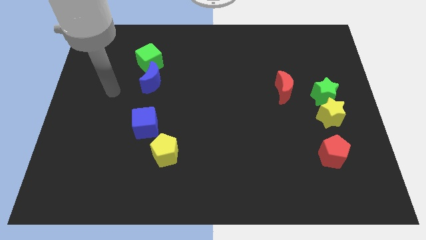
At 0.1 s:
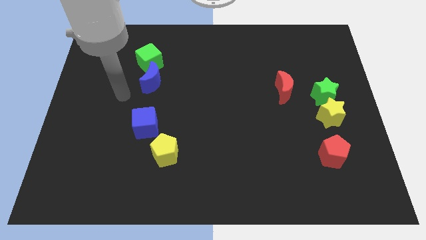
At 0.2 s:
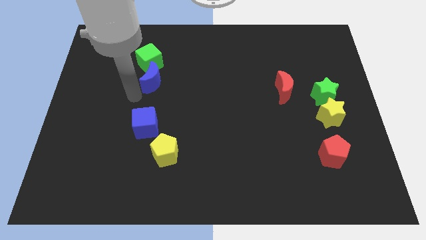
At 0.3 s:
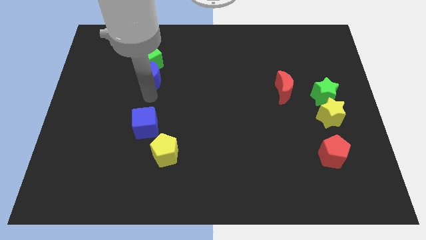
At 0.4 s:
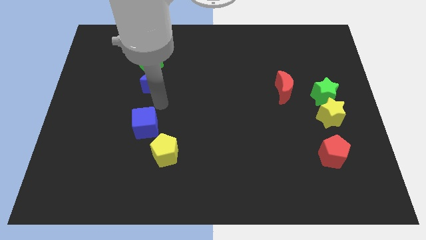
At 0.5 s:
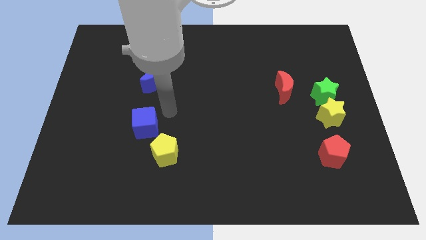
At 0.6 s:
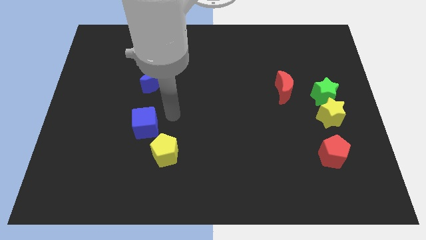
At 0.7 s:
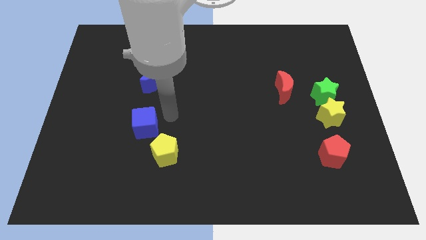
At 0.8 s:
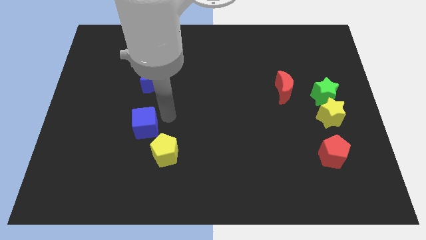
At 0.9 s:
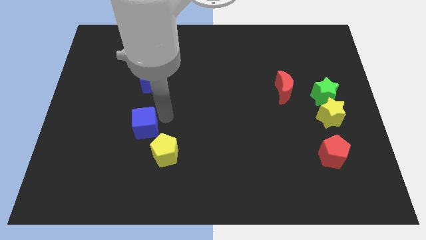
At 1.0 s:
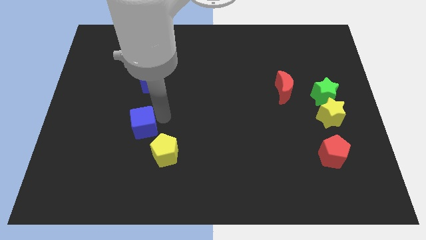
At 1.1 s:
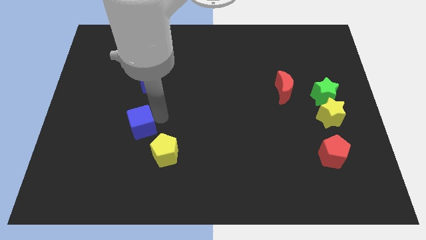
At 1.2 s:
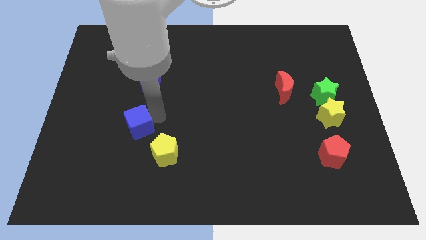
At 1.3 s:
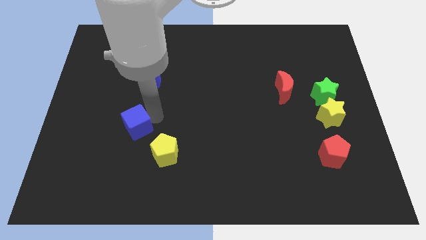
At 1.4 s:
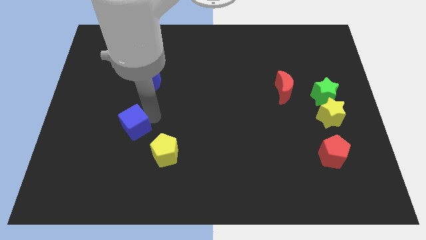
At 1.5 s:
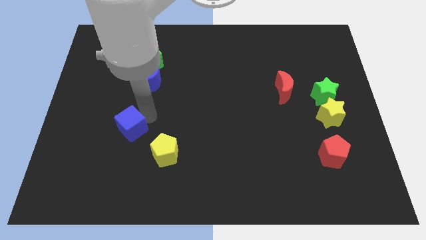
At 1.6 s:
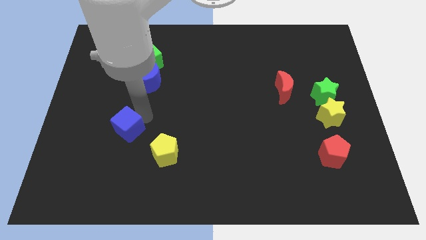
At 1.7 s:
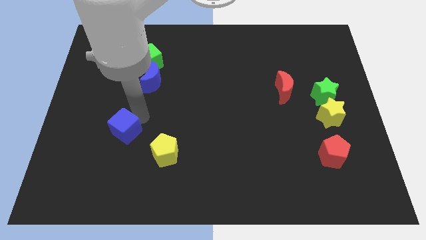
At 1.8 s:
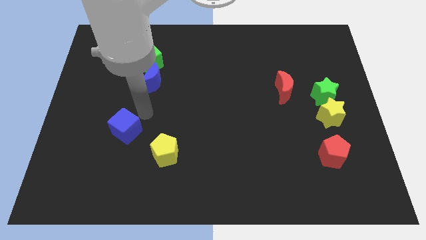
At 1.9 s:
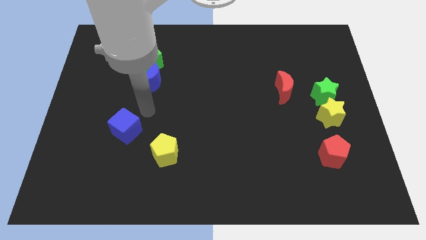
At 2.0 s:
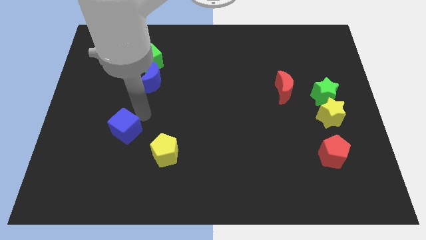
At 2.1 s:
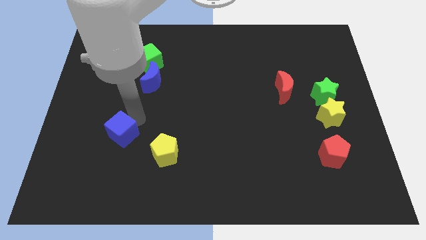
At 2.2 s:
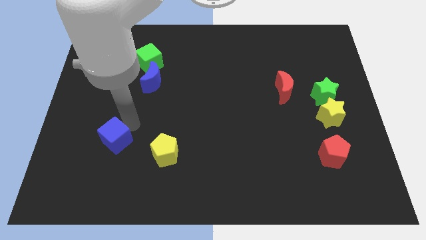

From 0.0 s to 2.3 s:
slightly slide the blue cube diagonally downwards and left

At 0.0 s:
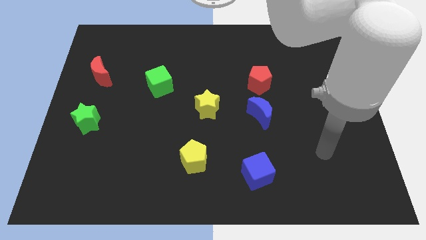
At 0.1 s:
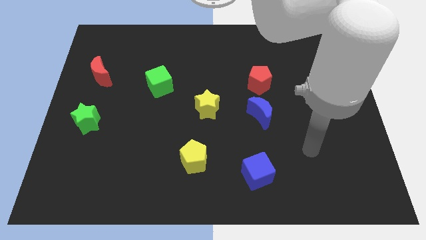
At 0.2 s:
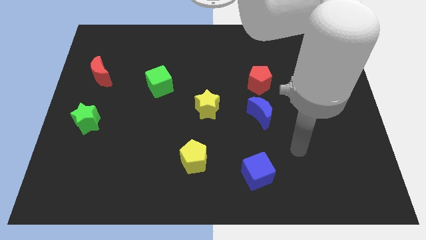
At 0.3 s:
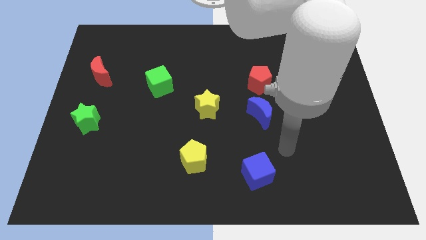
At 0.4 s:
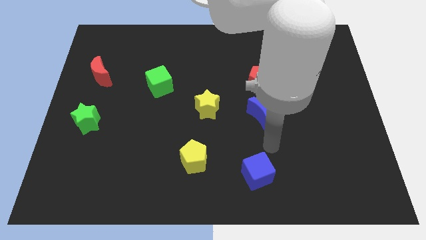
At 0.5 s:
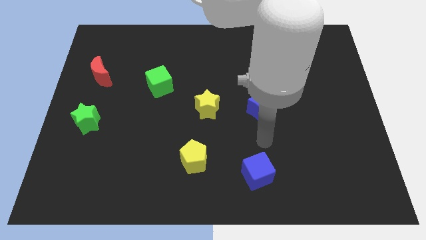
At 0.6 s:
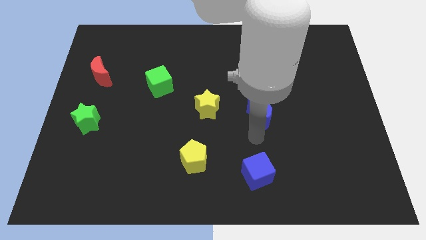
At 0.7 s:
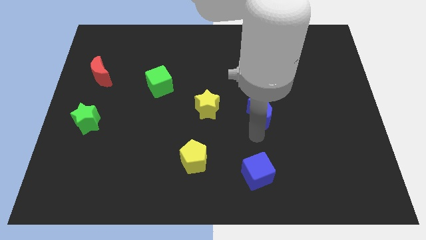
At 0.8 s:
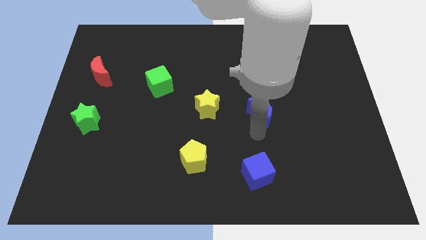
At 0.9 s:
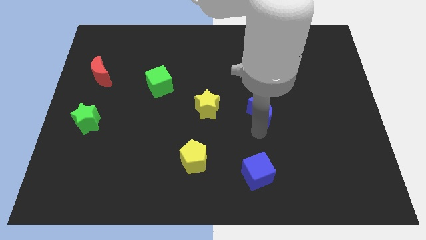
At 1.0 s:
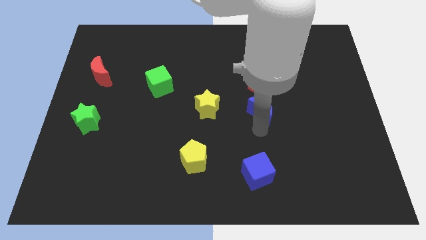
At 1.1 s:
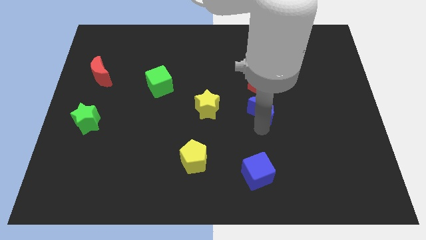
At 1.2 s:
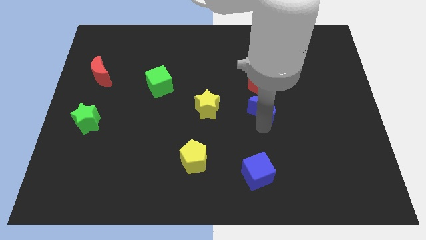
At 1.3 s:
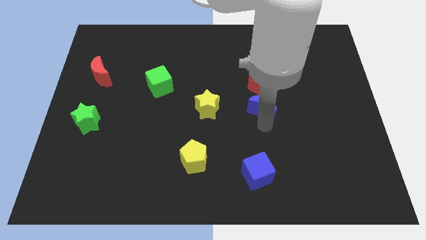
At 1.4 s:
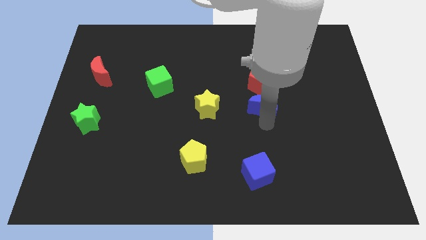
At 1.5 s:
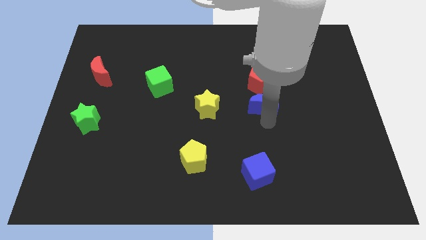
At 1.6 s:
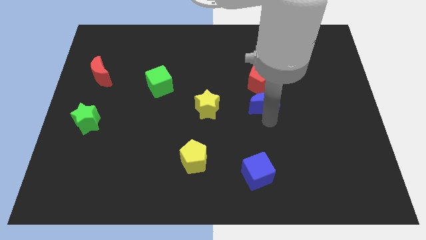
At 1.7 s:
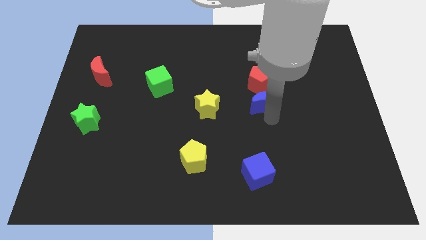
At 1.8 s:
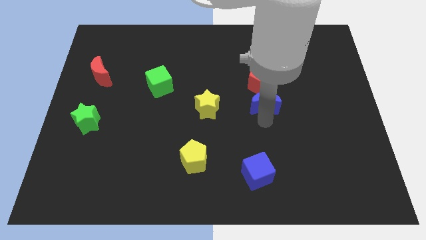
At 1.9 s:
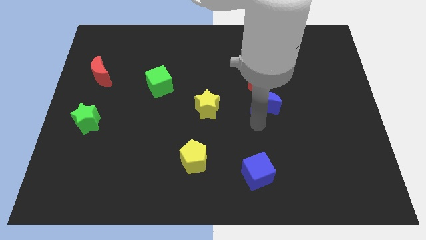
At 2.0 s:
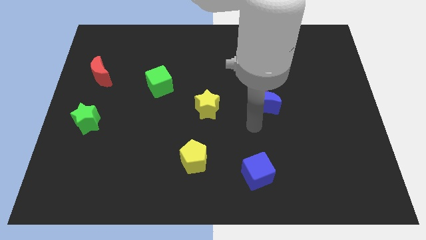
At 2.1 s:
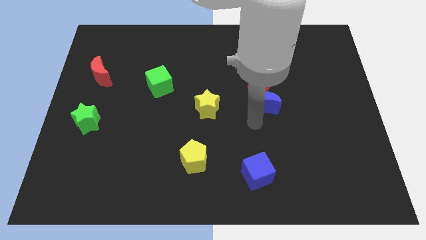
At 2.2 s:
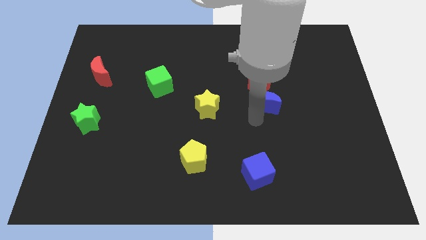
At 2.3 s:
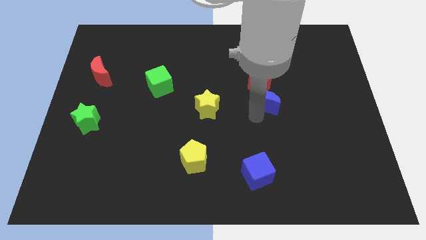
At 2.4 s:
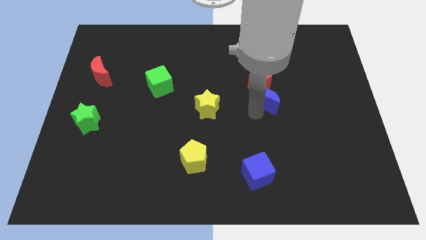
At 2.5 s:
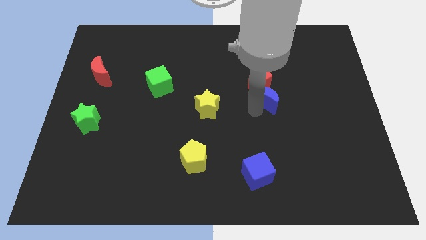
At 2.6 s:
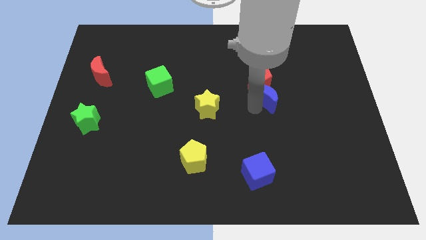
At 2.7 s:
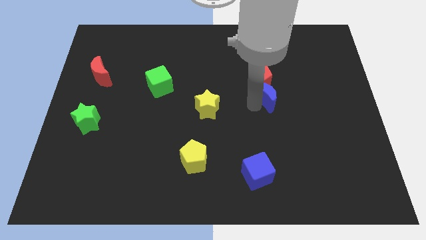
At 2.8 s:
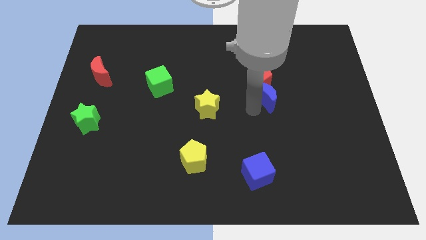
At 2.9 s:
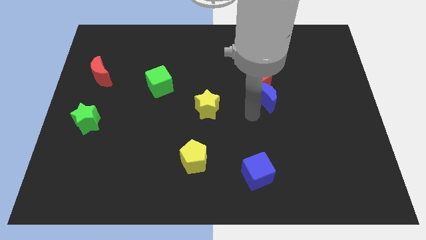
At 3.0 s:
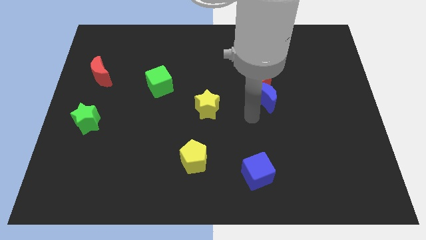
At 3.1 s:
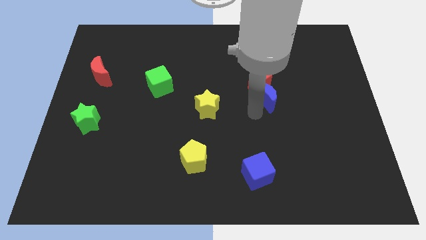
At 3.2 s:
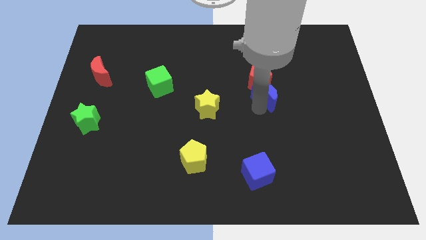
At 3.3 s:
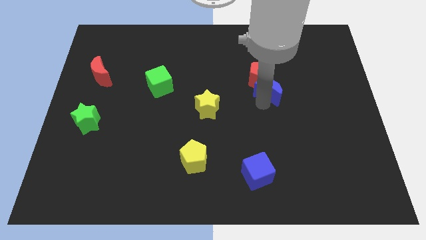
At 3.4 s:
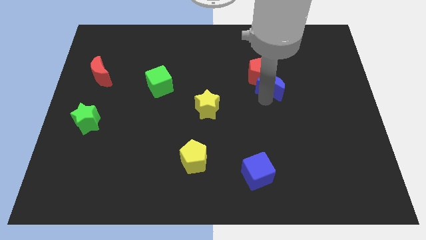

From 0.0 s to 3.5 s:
move the blue moon a little bit upwards

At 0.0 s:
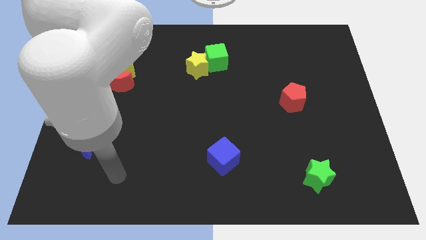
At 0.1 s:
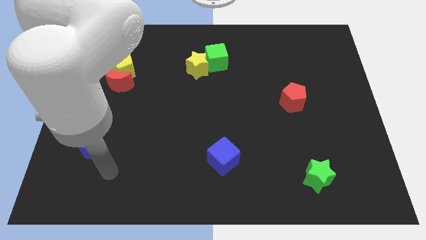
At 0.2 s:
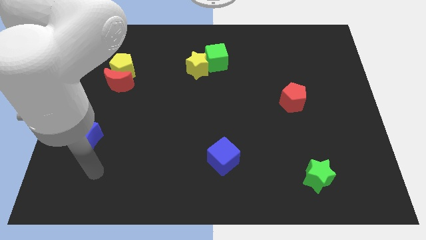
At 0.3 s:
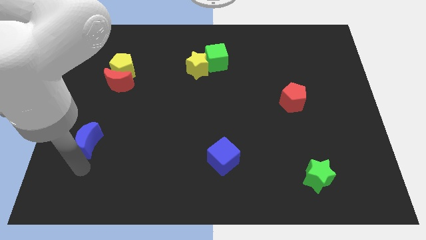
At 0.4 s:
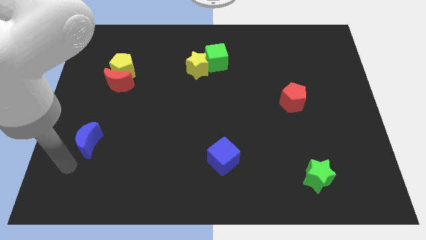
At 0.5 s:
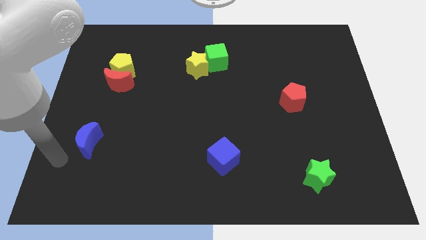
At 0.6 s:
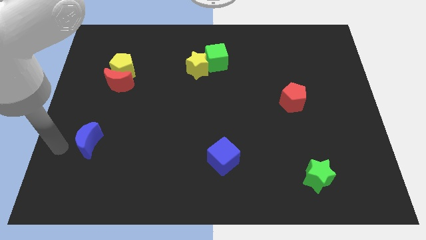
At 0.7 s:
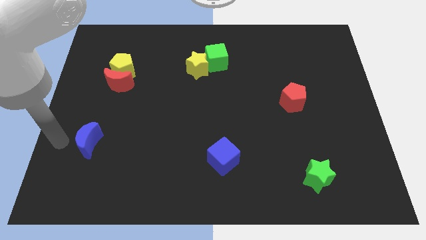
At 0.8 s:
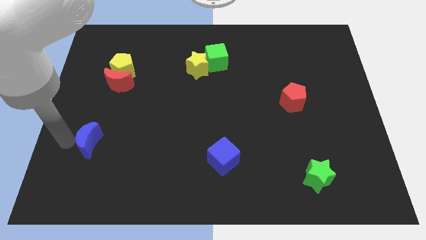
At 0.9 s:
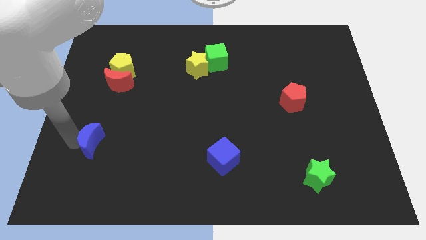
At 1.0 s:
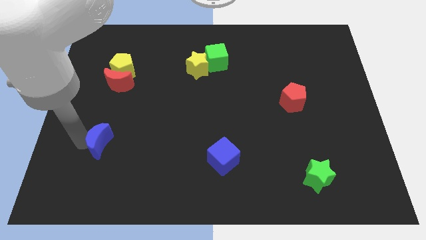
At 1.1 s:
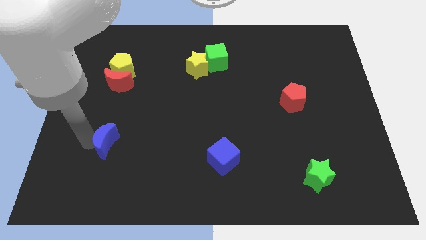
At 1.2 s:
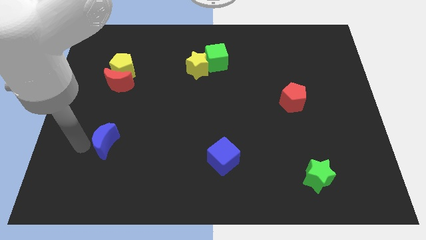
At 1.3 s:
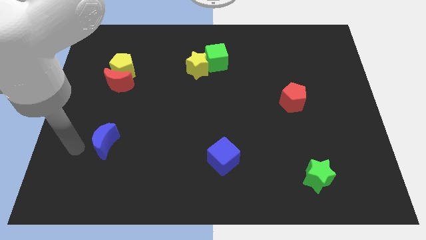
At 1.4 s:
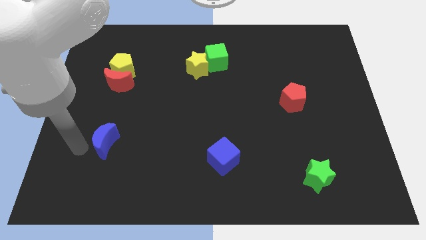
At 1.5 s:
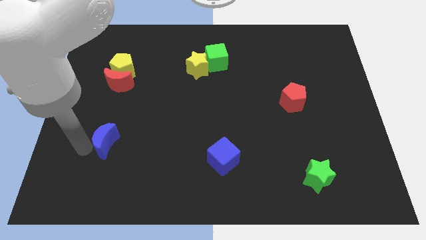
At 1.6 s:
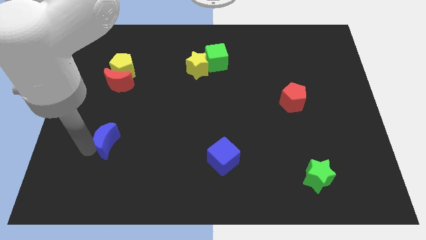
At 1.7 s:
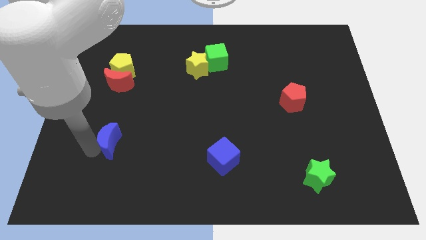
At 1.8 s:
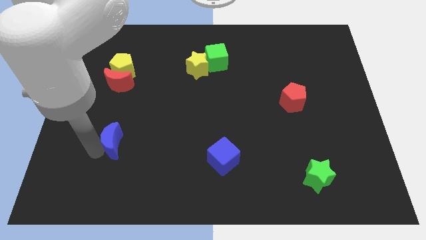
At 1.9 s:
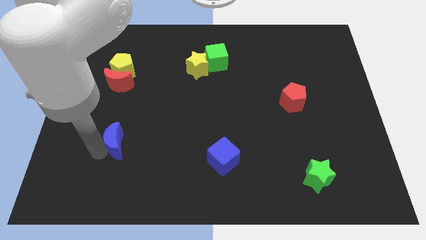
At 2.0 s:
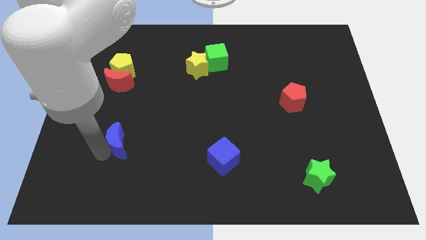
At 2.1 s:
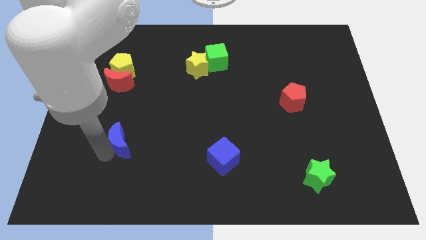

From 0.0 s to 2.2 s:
slide the blue moon to the right a little
